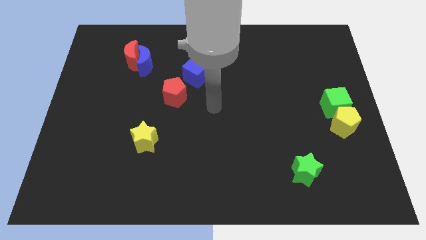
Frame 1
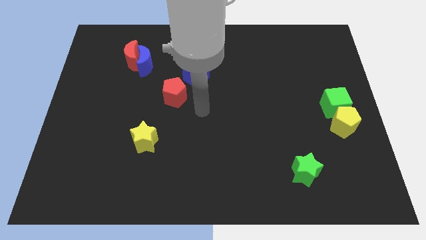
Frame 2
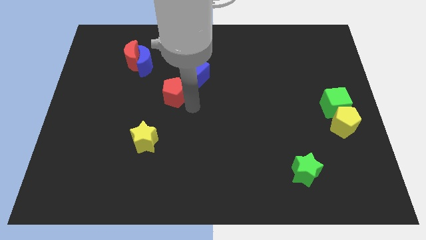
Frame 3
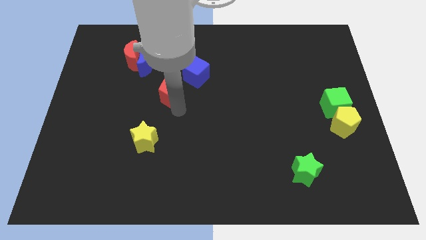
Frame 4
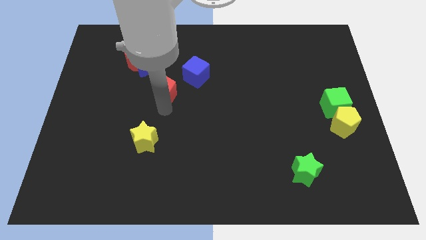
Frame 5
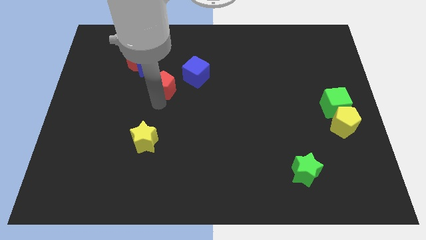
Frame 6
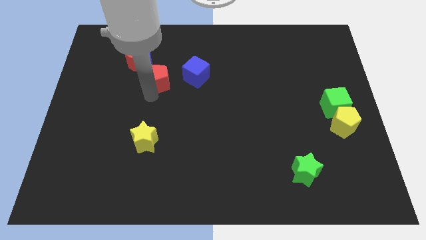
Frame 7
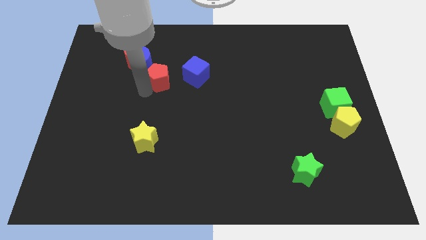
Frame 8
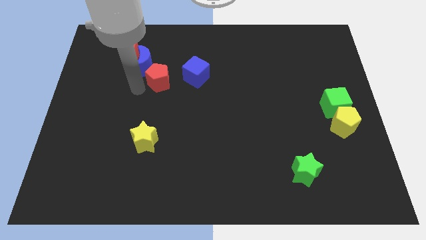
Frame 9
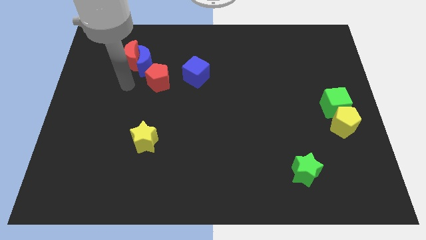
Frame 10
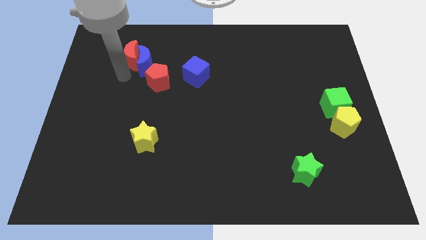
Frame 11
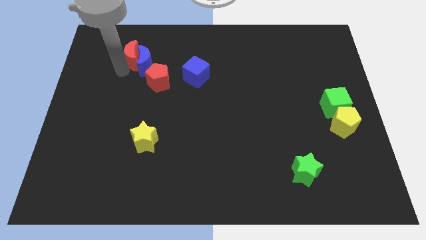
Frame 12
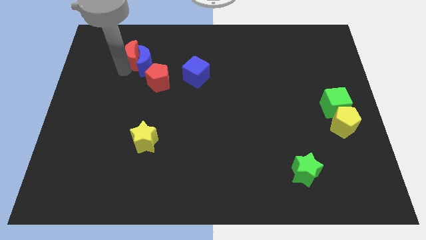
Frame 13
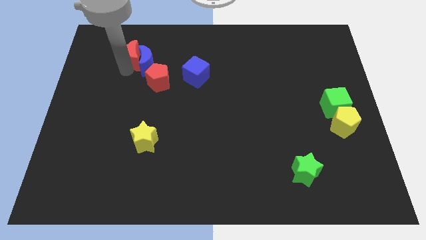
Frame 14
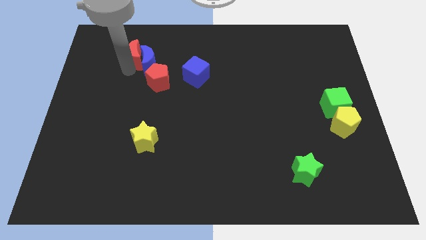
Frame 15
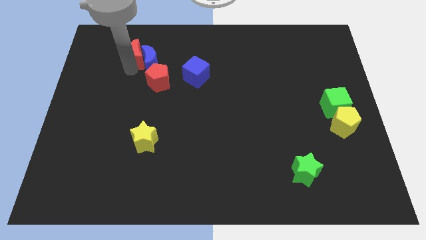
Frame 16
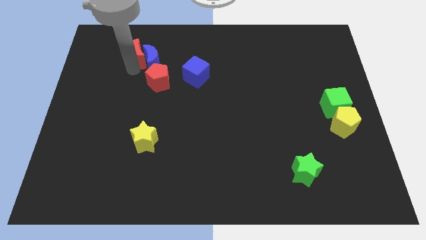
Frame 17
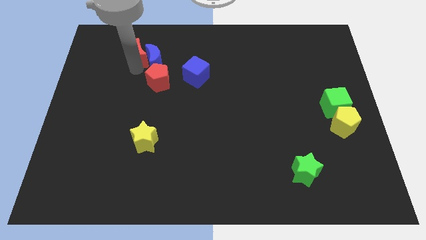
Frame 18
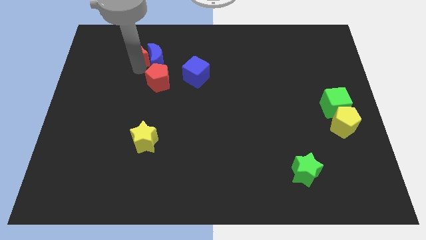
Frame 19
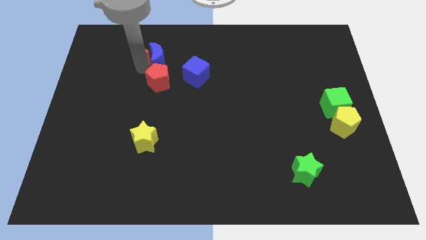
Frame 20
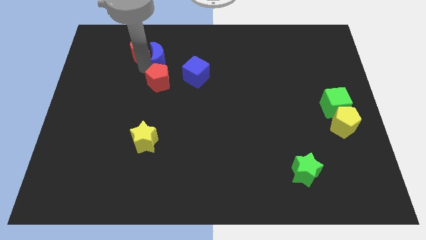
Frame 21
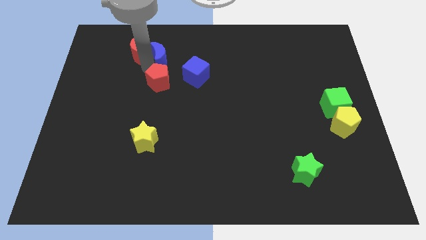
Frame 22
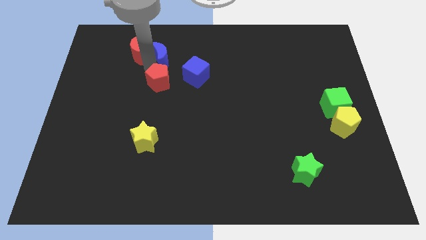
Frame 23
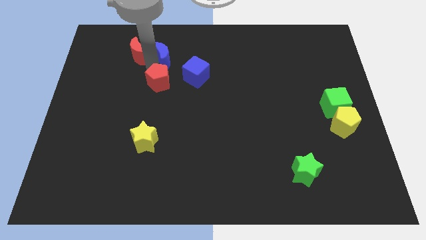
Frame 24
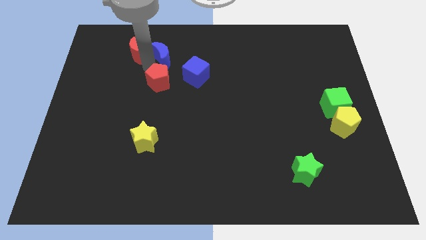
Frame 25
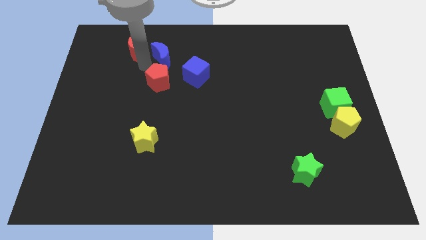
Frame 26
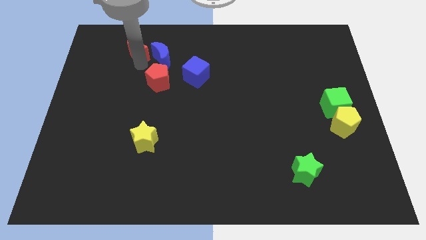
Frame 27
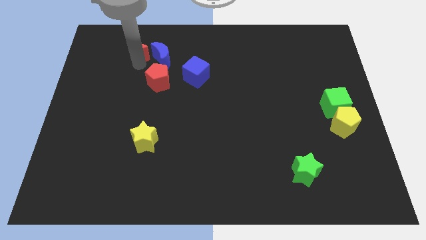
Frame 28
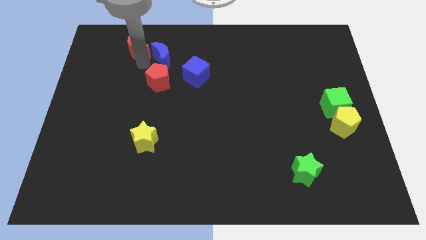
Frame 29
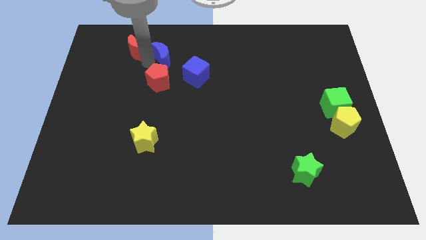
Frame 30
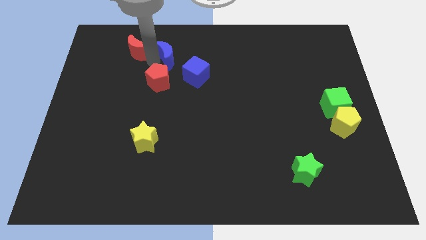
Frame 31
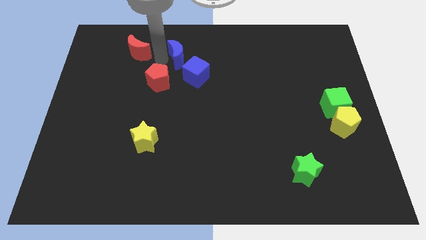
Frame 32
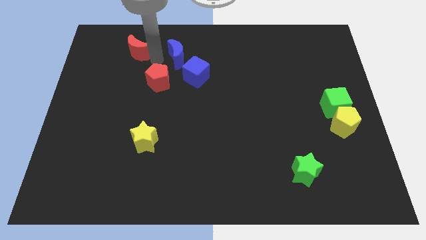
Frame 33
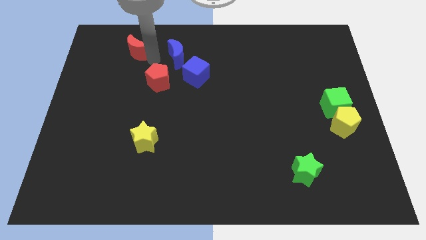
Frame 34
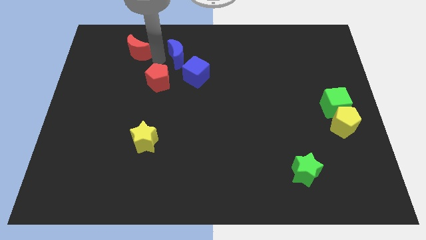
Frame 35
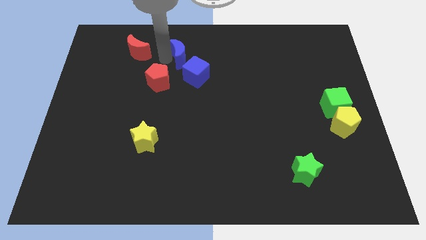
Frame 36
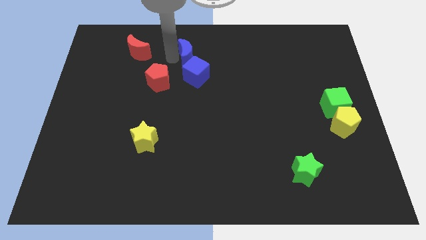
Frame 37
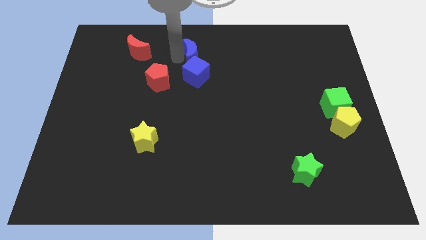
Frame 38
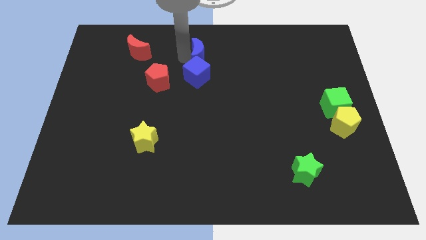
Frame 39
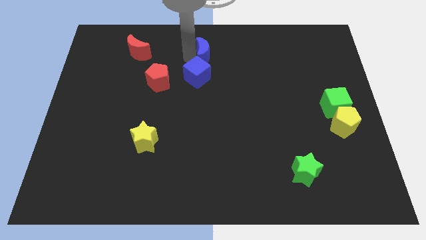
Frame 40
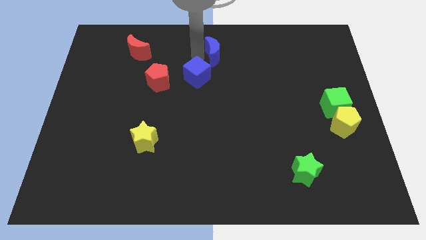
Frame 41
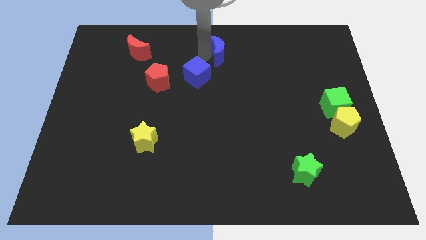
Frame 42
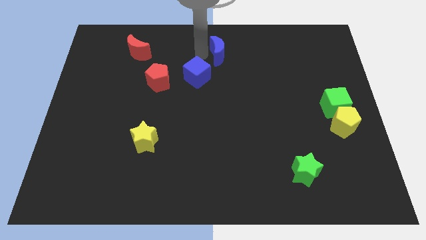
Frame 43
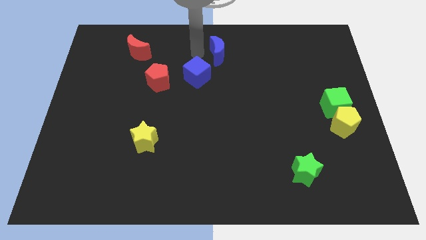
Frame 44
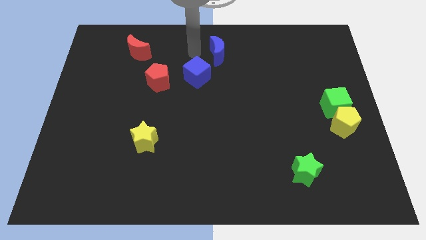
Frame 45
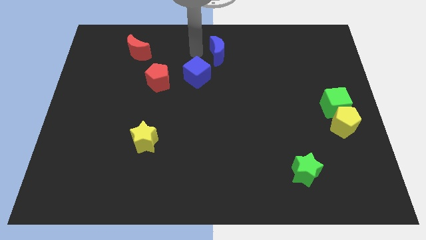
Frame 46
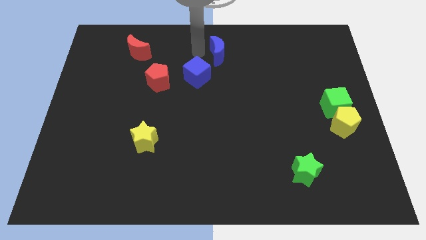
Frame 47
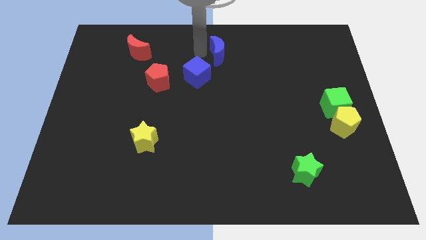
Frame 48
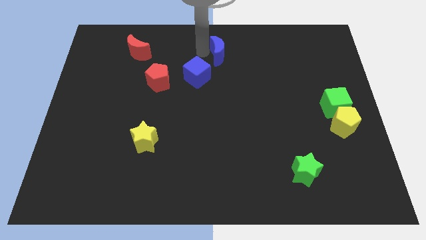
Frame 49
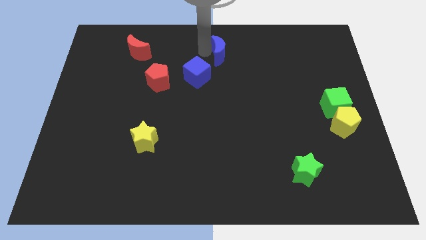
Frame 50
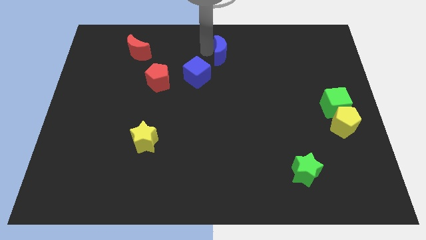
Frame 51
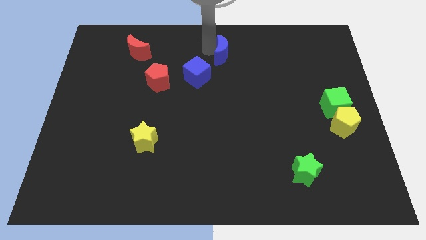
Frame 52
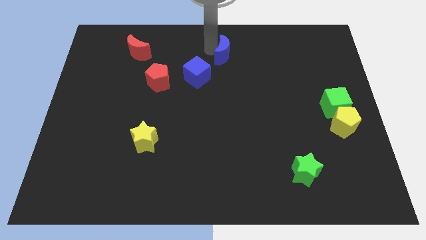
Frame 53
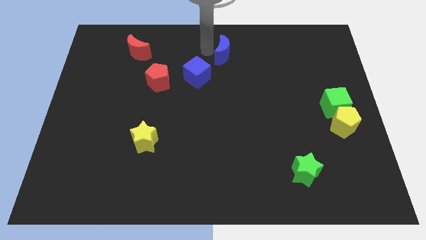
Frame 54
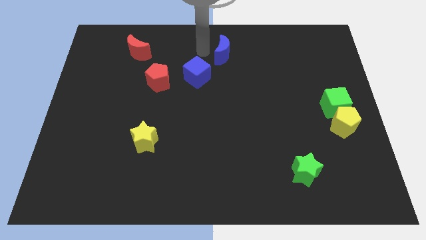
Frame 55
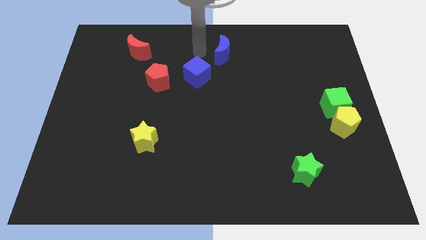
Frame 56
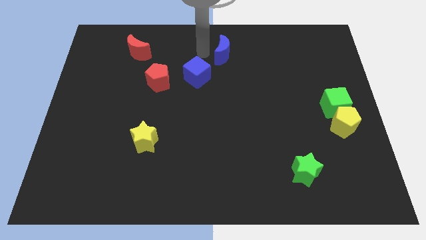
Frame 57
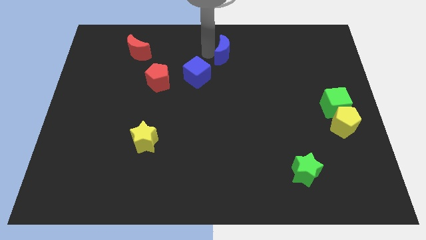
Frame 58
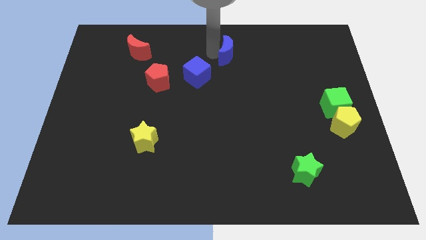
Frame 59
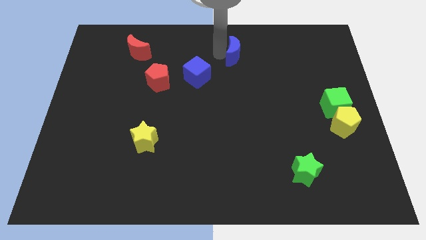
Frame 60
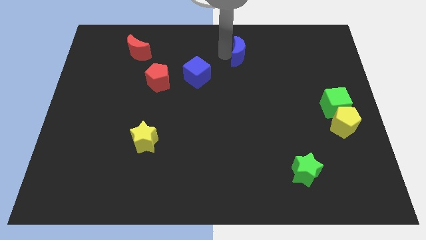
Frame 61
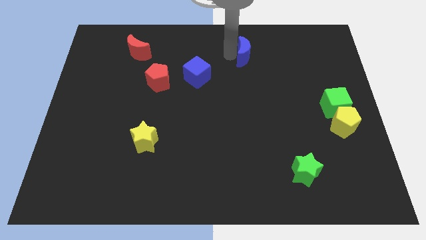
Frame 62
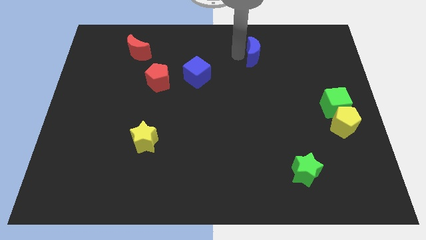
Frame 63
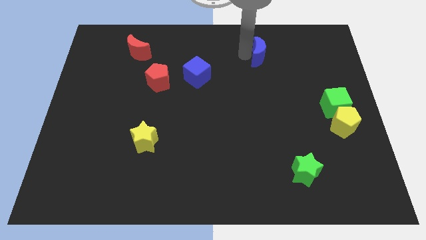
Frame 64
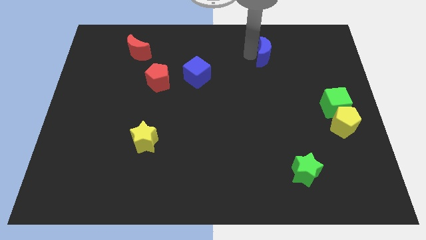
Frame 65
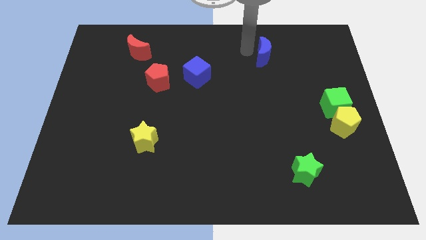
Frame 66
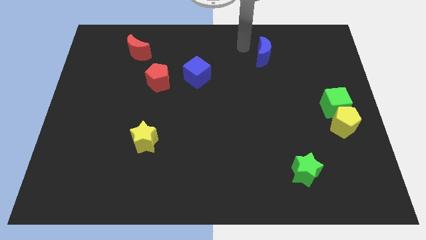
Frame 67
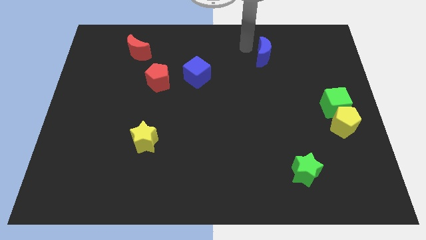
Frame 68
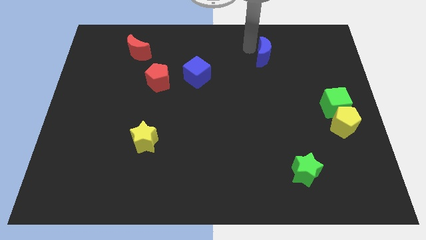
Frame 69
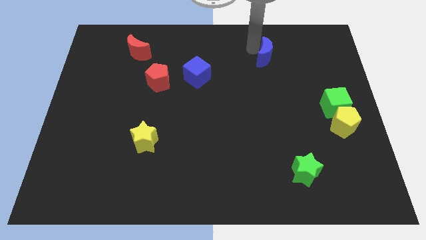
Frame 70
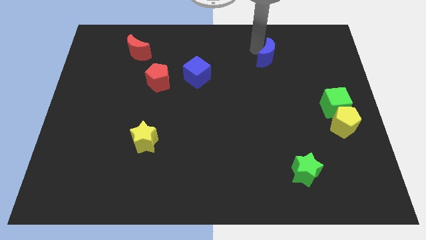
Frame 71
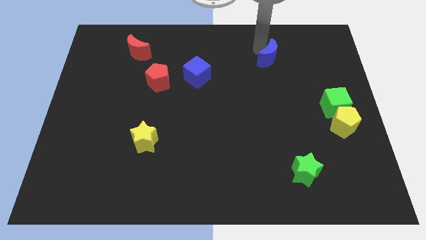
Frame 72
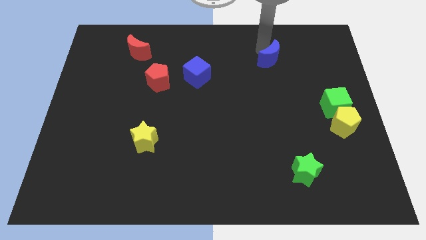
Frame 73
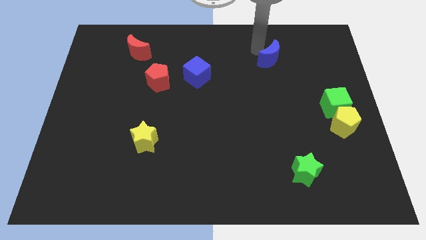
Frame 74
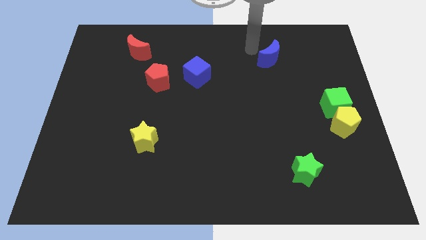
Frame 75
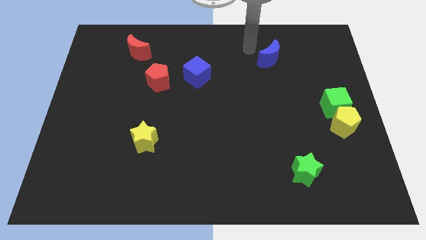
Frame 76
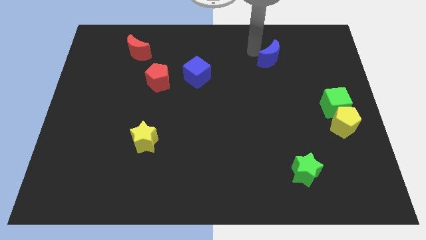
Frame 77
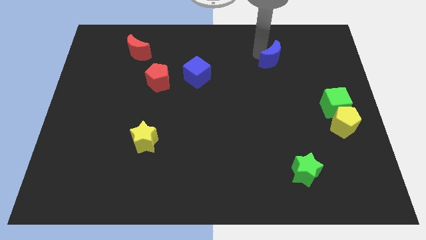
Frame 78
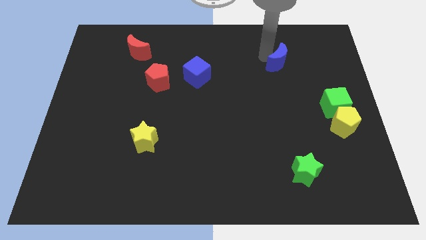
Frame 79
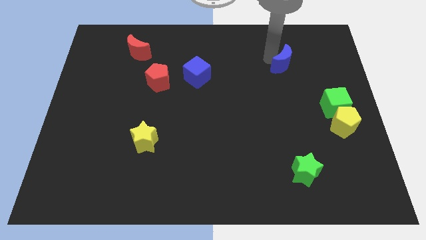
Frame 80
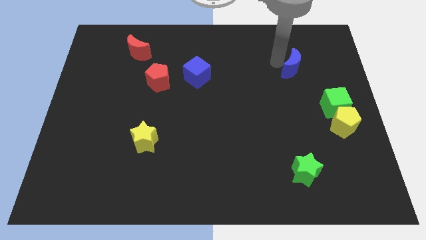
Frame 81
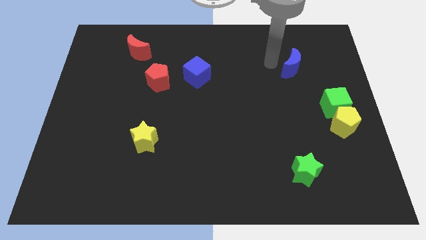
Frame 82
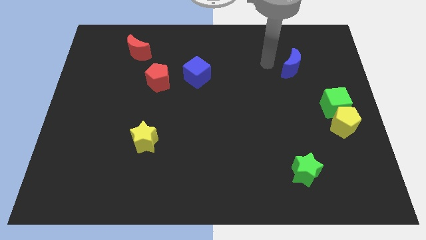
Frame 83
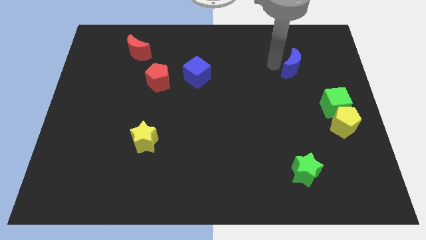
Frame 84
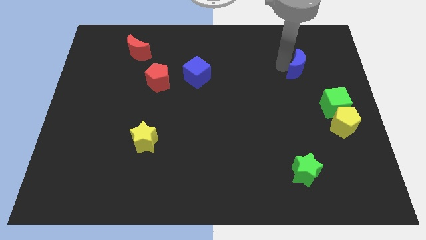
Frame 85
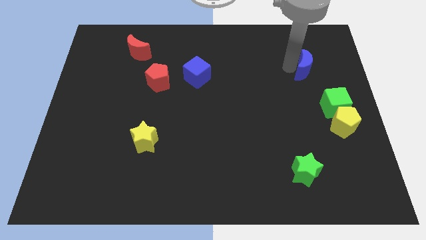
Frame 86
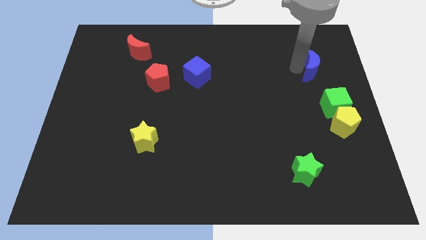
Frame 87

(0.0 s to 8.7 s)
push the blue moon to the top of the green cube
